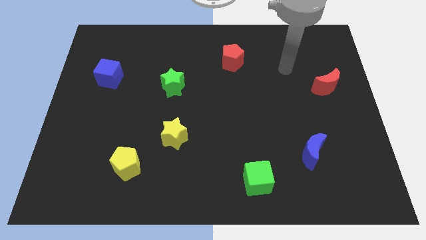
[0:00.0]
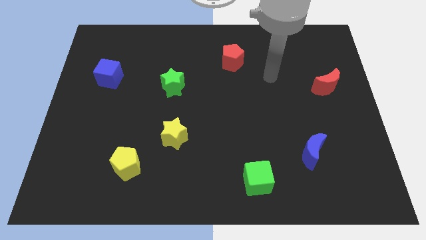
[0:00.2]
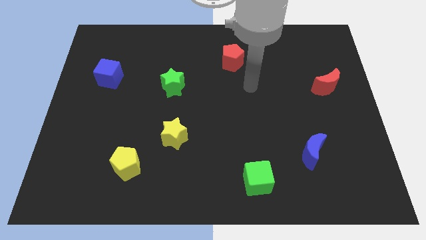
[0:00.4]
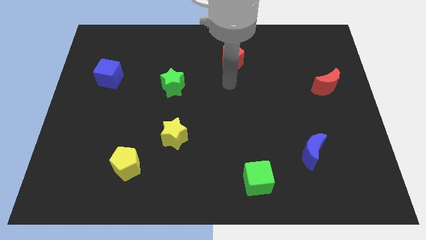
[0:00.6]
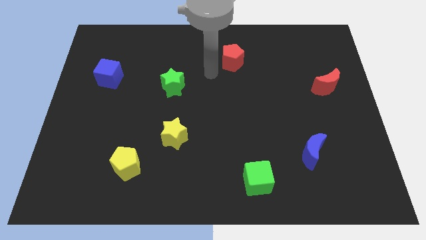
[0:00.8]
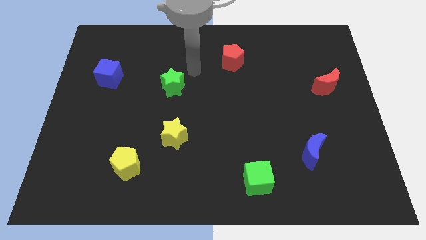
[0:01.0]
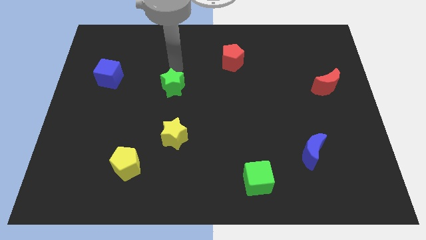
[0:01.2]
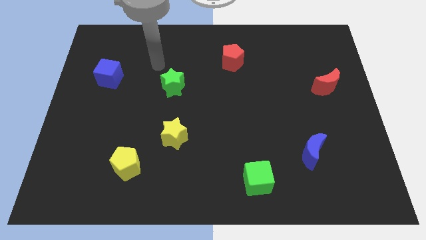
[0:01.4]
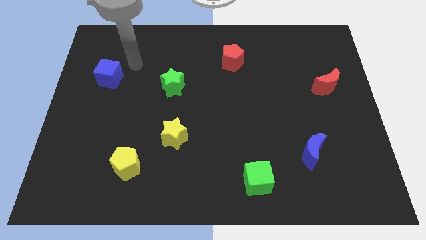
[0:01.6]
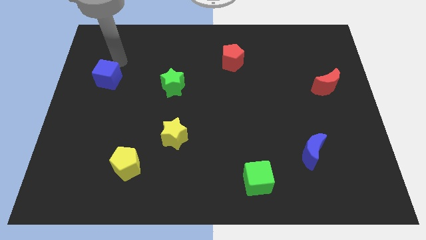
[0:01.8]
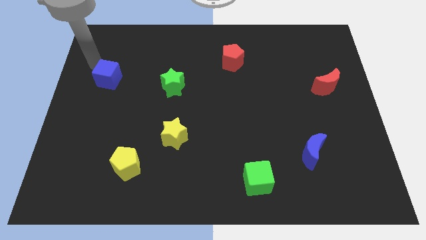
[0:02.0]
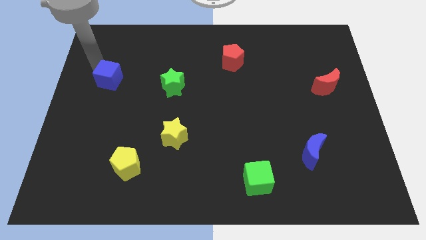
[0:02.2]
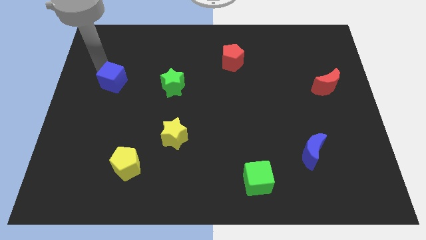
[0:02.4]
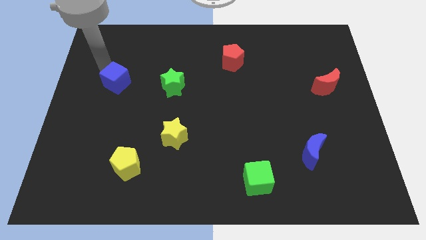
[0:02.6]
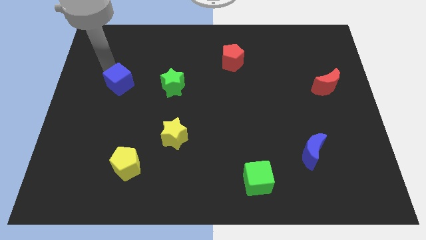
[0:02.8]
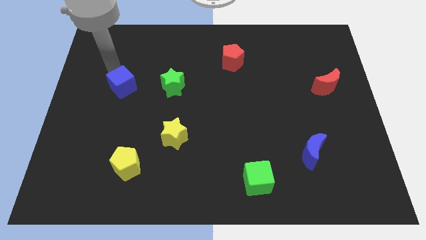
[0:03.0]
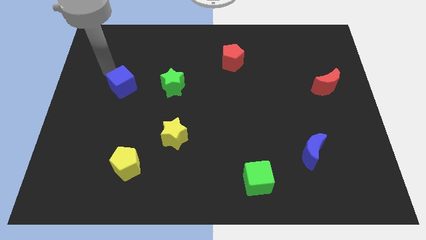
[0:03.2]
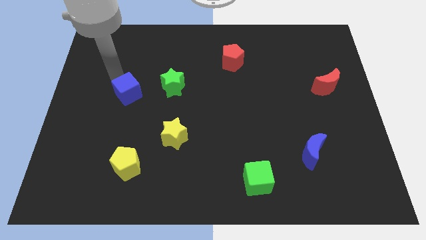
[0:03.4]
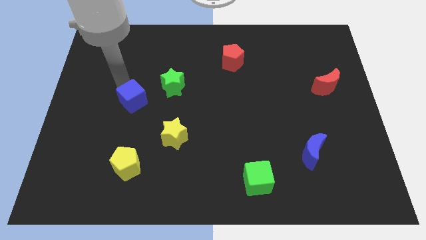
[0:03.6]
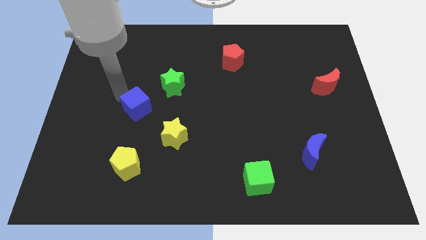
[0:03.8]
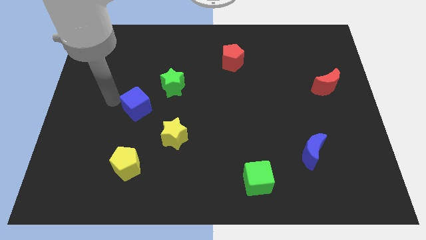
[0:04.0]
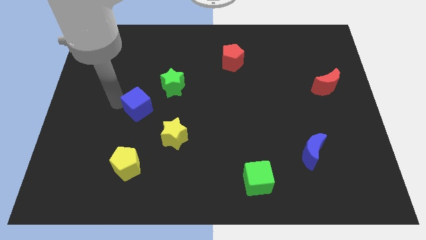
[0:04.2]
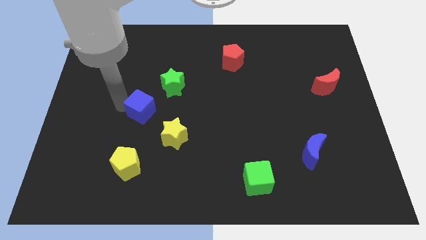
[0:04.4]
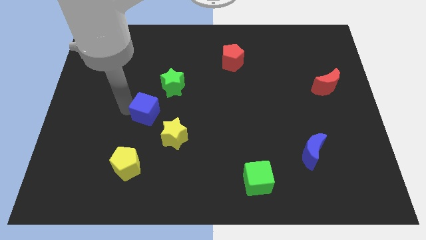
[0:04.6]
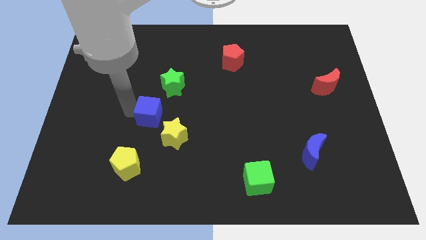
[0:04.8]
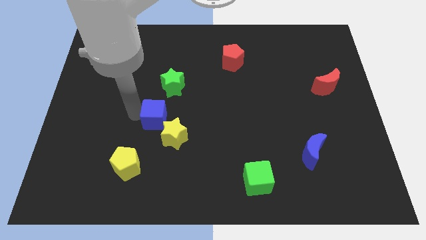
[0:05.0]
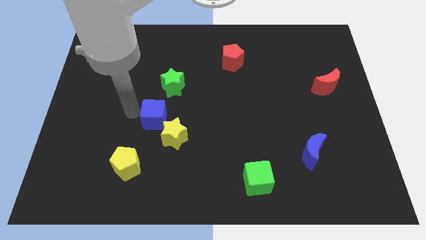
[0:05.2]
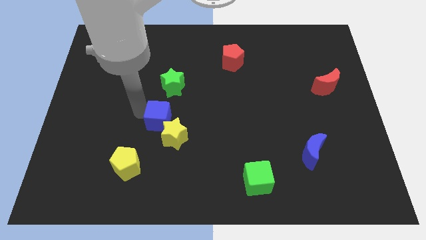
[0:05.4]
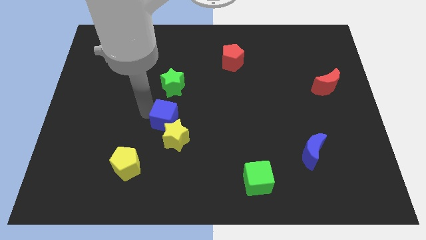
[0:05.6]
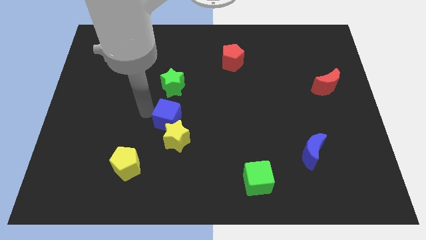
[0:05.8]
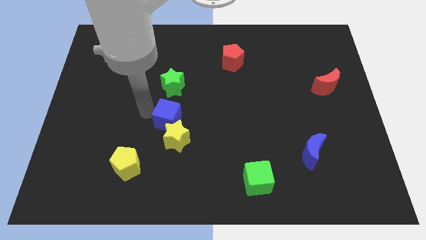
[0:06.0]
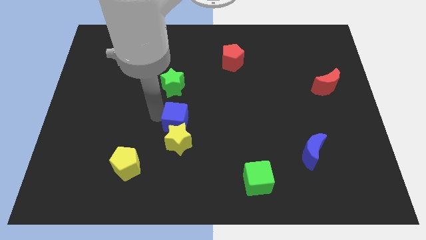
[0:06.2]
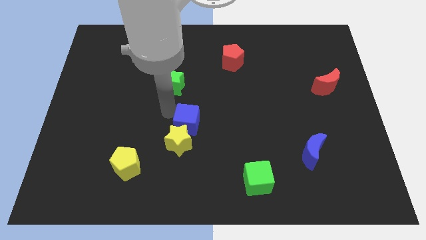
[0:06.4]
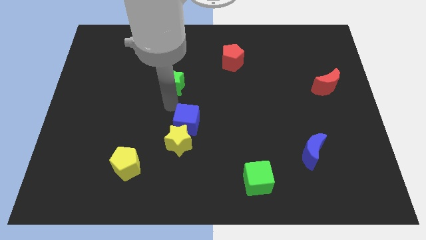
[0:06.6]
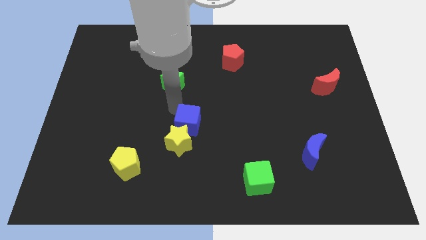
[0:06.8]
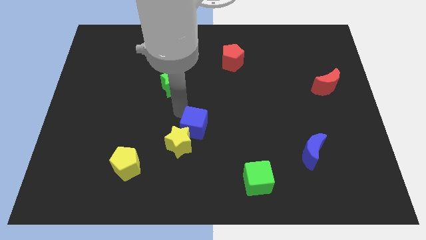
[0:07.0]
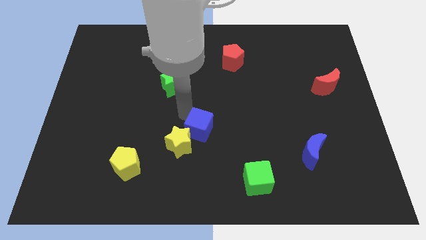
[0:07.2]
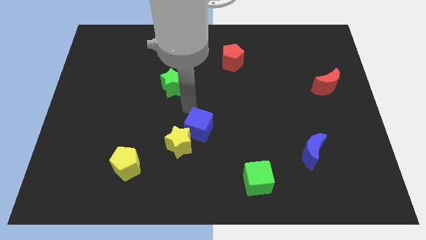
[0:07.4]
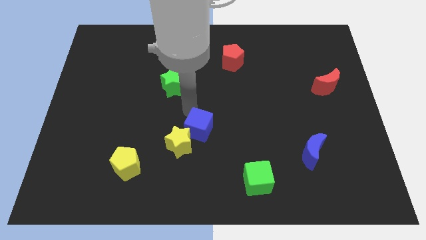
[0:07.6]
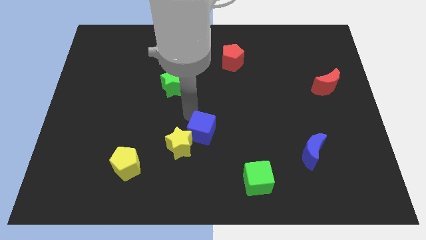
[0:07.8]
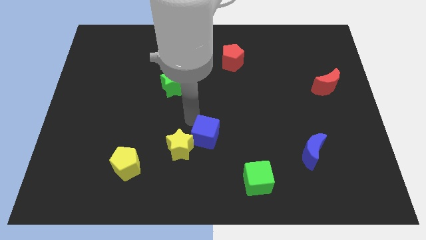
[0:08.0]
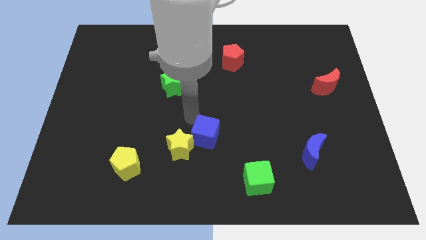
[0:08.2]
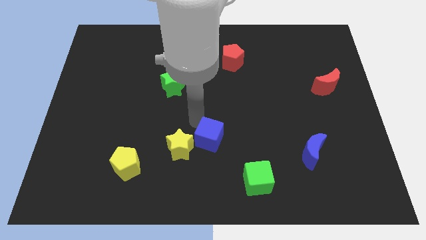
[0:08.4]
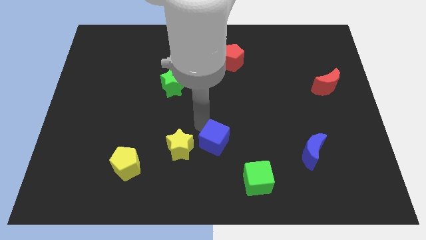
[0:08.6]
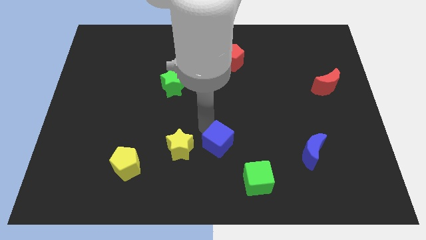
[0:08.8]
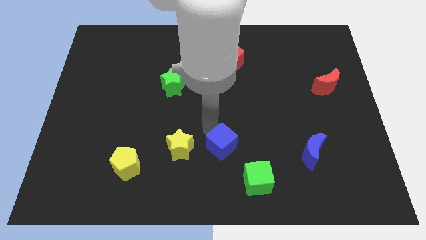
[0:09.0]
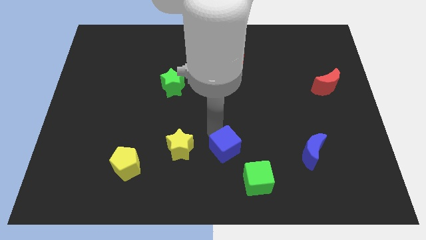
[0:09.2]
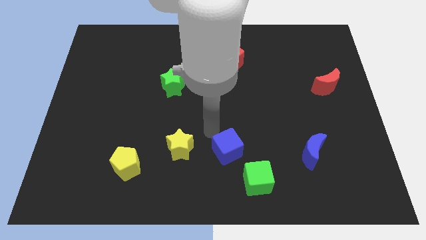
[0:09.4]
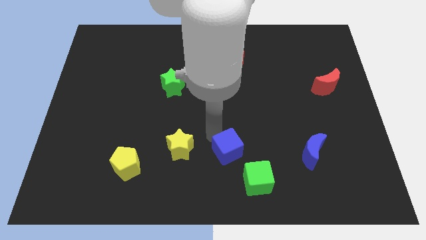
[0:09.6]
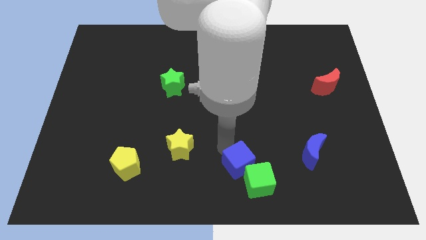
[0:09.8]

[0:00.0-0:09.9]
push the blue cube close to the green cube

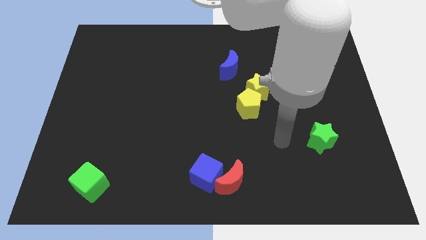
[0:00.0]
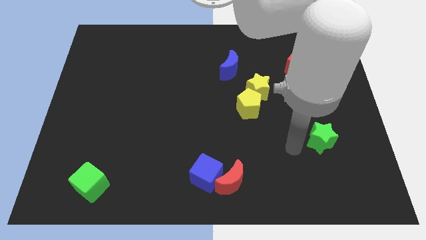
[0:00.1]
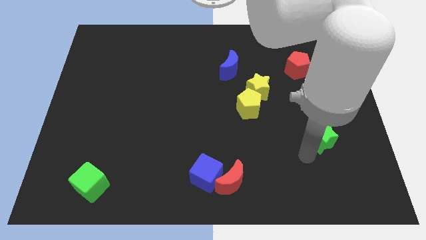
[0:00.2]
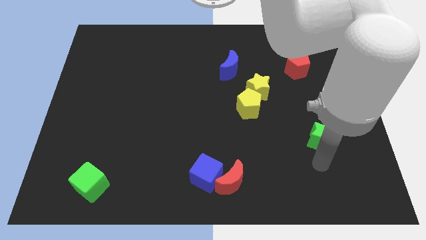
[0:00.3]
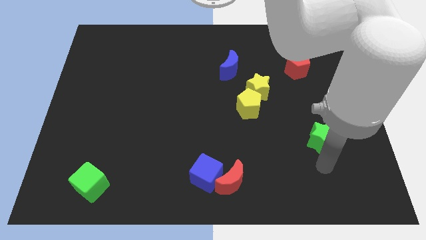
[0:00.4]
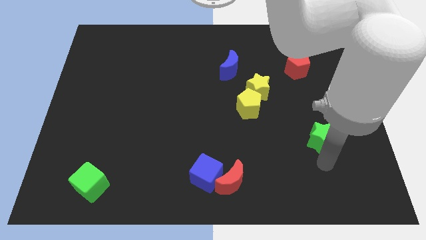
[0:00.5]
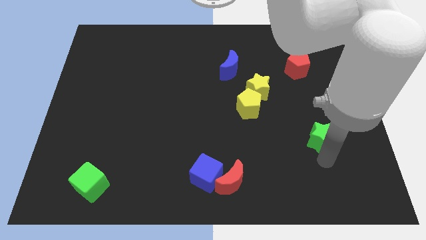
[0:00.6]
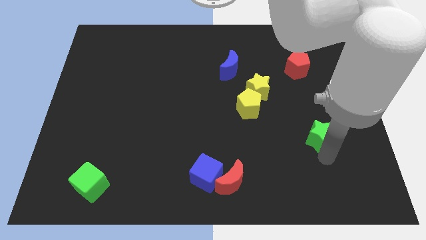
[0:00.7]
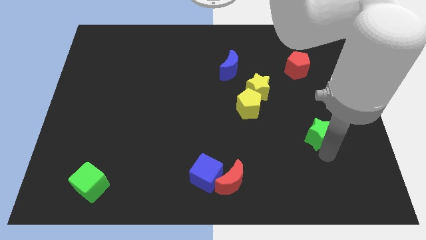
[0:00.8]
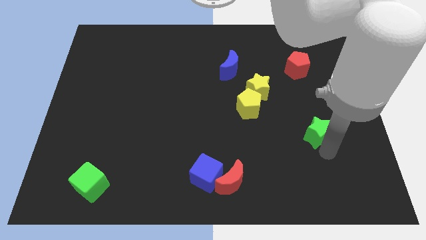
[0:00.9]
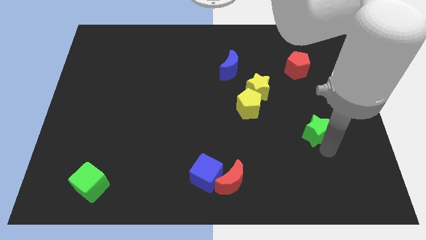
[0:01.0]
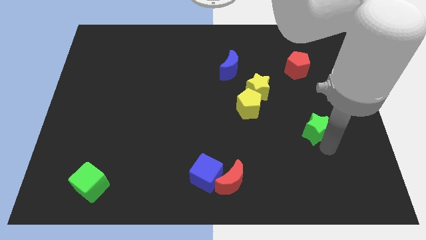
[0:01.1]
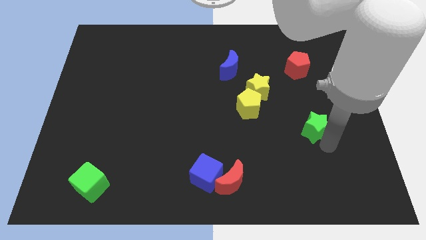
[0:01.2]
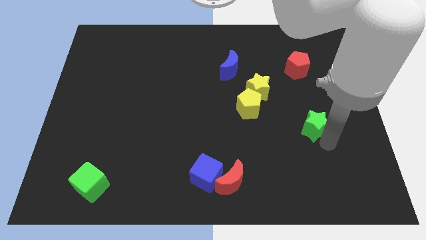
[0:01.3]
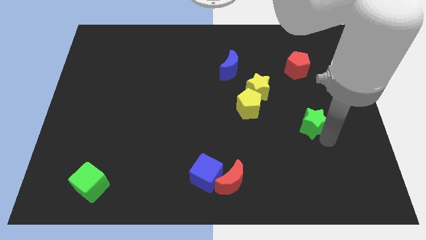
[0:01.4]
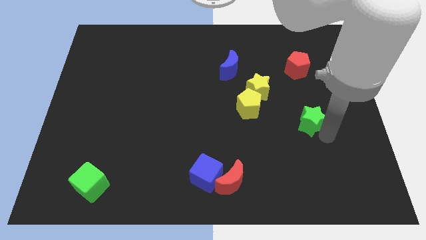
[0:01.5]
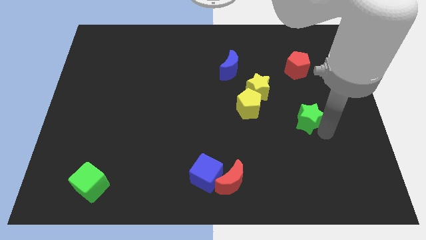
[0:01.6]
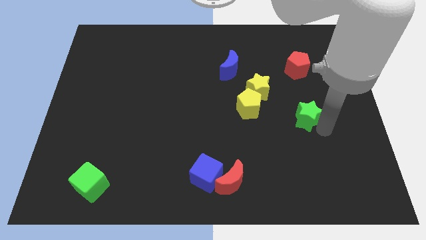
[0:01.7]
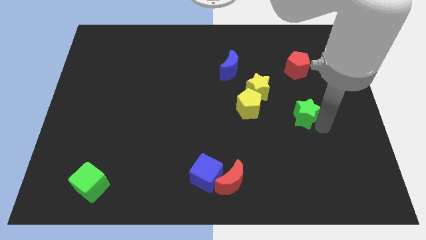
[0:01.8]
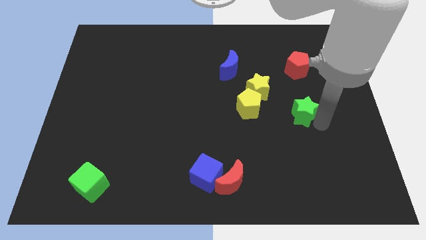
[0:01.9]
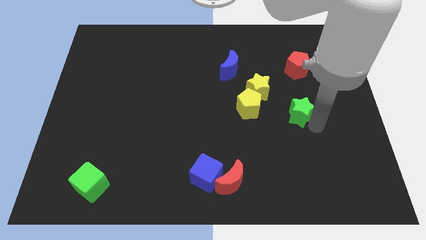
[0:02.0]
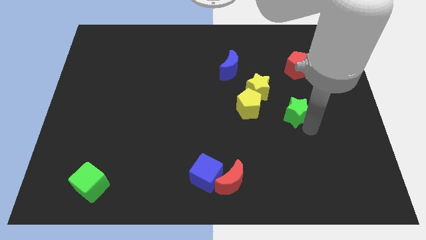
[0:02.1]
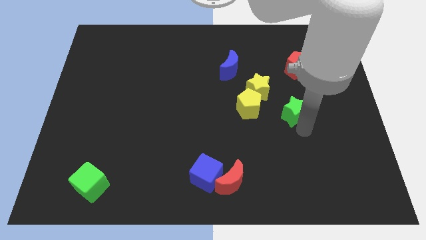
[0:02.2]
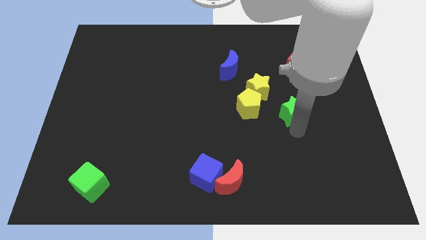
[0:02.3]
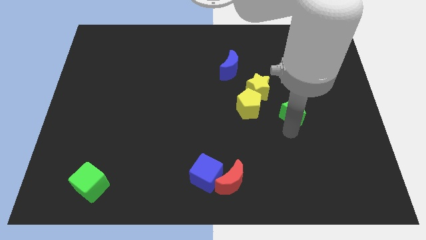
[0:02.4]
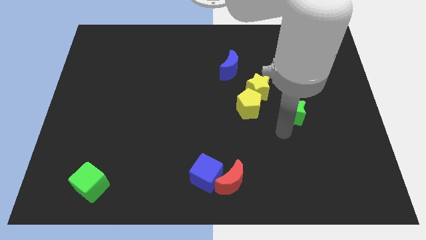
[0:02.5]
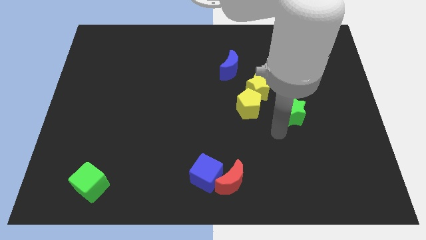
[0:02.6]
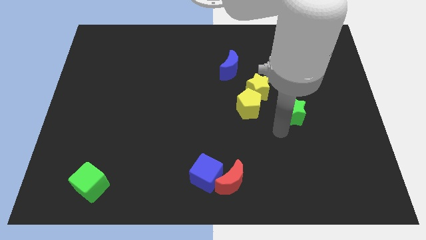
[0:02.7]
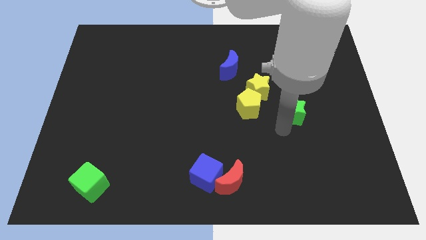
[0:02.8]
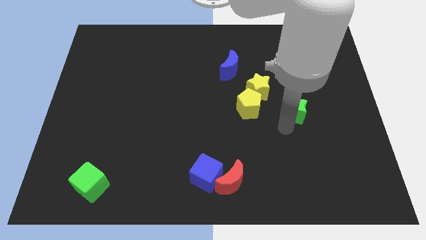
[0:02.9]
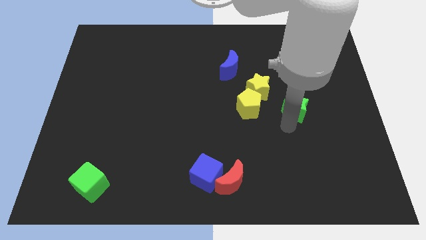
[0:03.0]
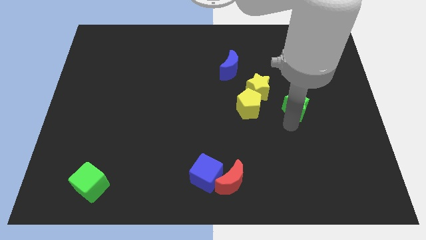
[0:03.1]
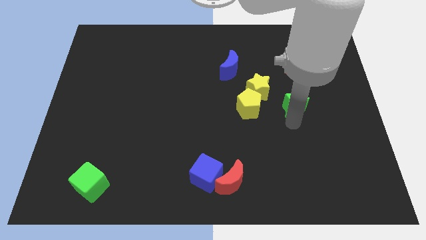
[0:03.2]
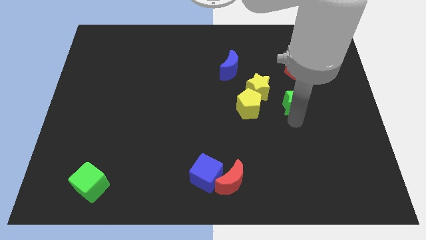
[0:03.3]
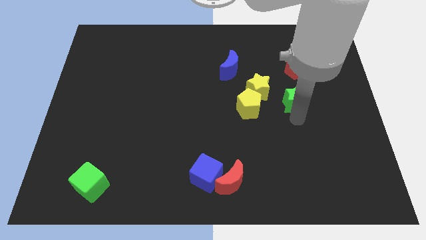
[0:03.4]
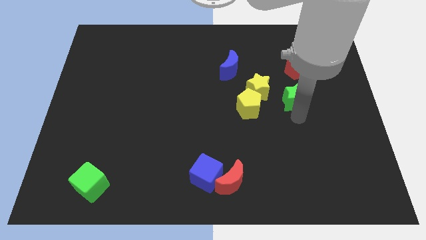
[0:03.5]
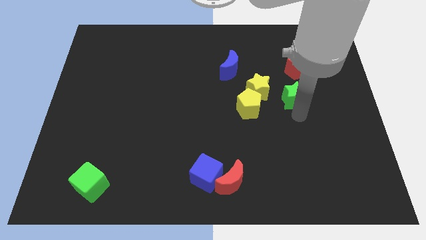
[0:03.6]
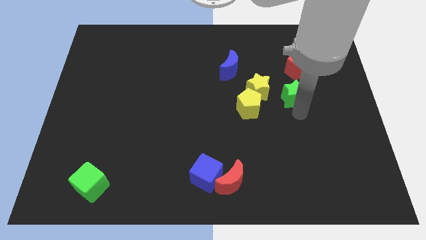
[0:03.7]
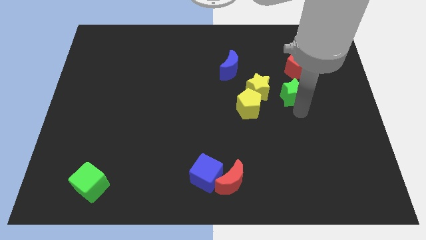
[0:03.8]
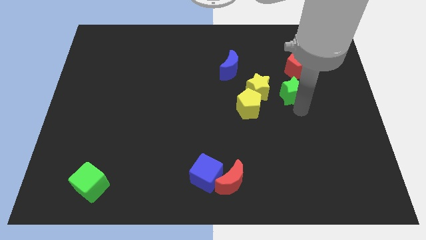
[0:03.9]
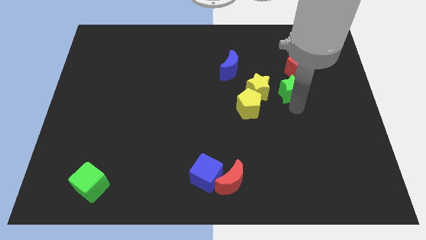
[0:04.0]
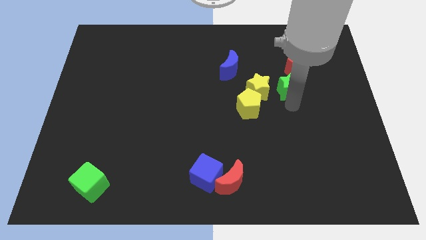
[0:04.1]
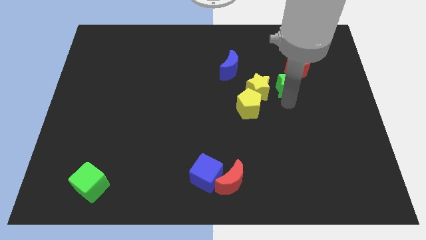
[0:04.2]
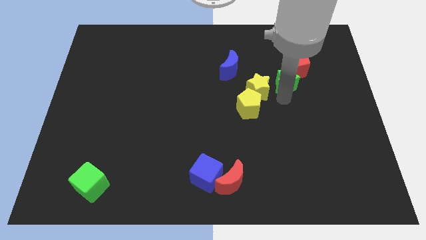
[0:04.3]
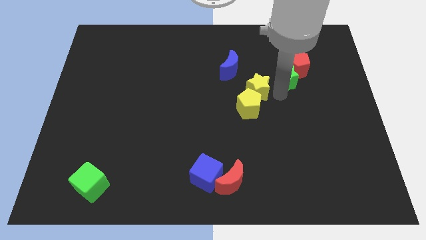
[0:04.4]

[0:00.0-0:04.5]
push the green star to the red pentagon
